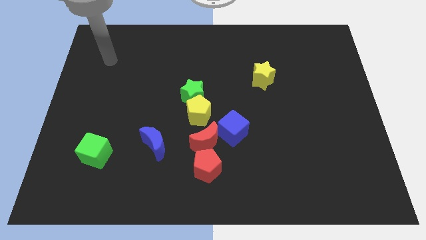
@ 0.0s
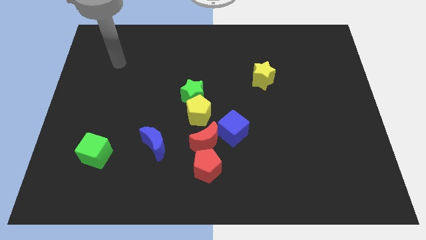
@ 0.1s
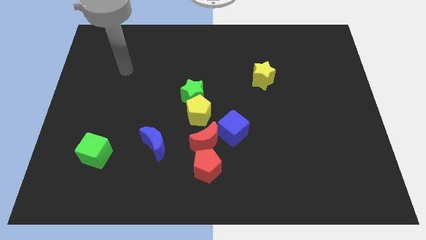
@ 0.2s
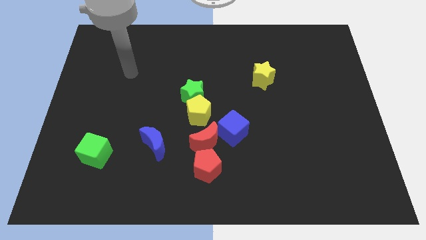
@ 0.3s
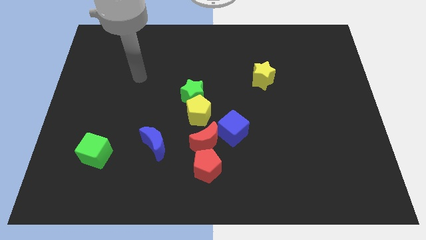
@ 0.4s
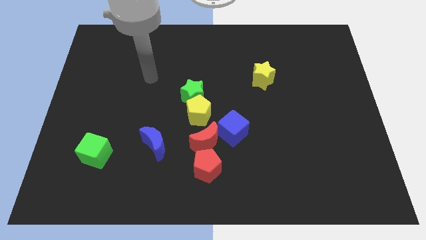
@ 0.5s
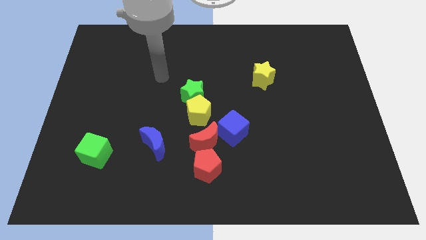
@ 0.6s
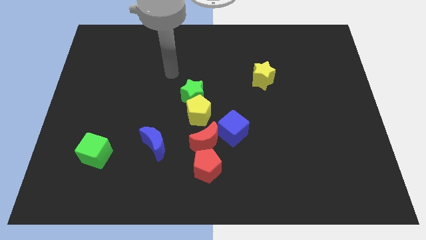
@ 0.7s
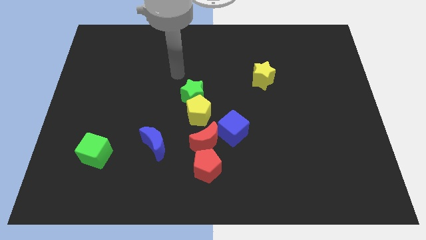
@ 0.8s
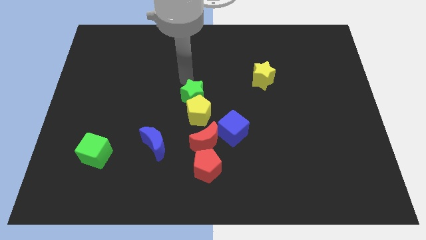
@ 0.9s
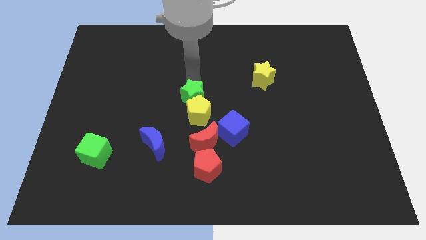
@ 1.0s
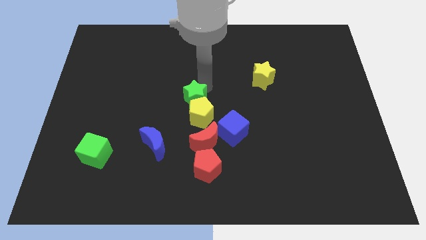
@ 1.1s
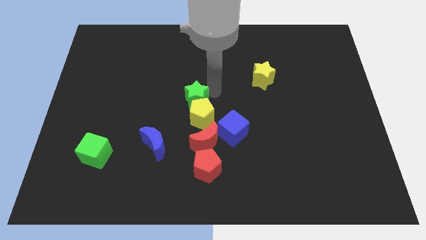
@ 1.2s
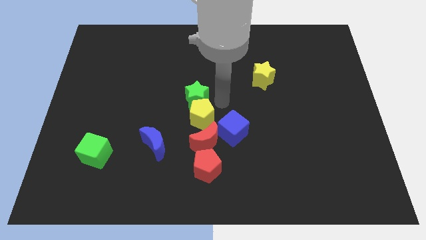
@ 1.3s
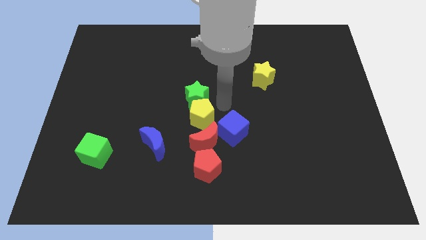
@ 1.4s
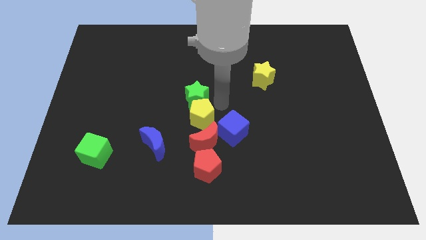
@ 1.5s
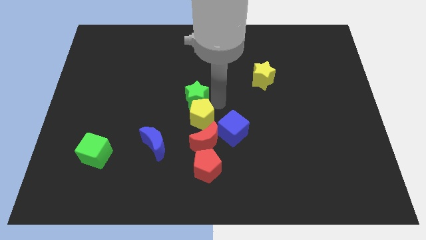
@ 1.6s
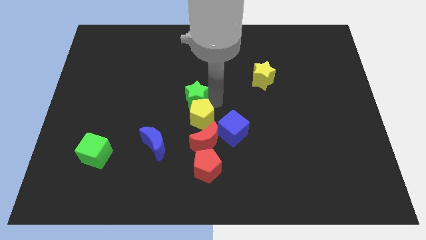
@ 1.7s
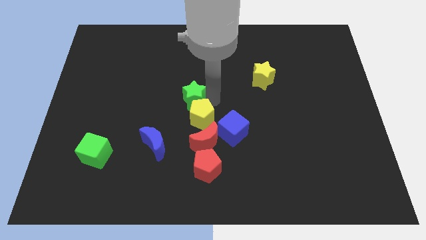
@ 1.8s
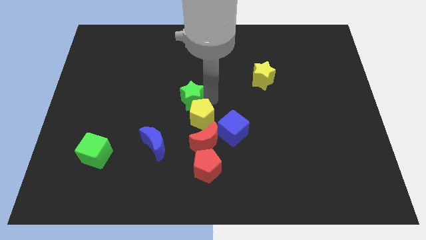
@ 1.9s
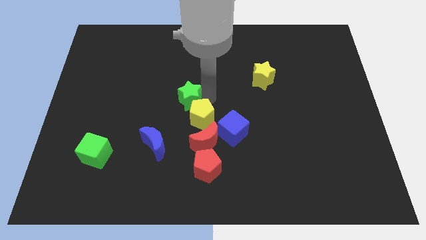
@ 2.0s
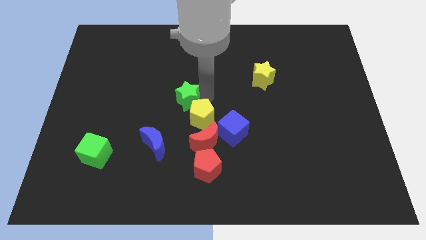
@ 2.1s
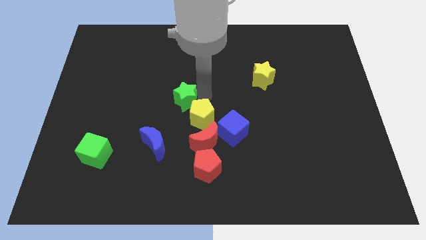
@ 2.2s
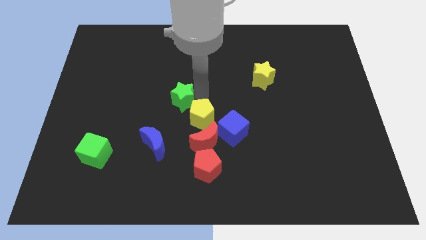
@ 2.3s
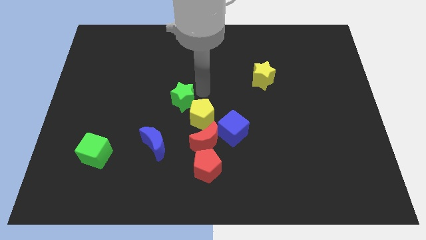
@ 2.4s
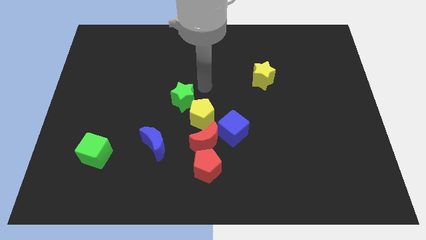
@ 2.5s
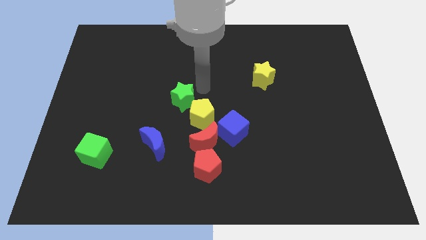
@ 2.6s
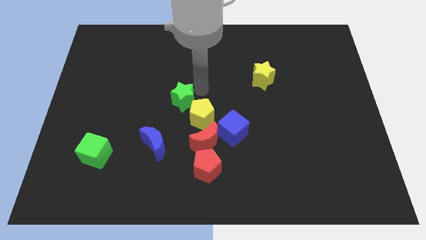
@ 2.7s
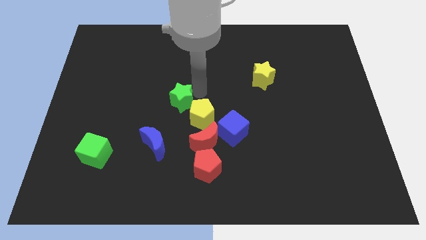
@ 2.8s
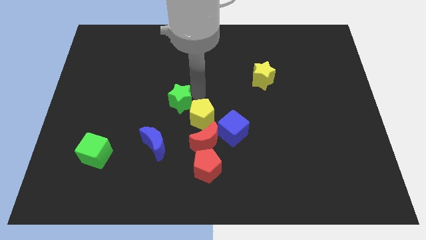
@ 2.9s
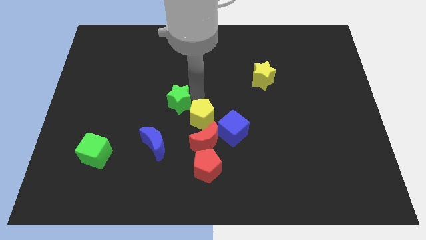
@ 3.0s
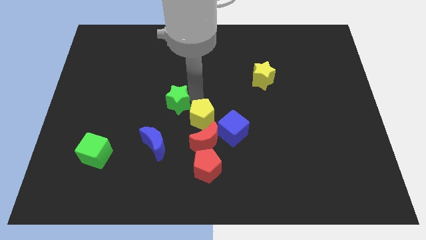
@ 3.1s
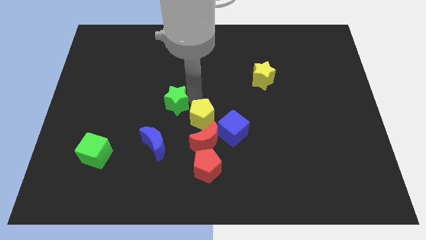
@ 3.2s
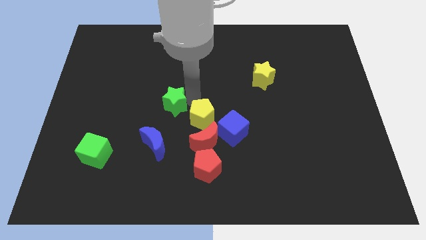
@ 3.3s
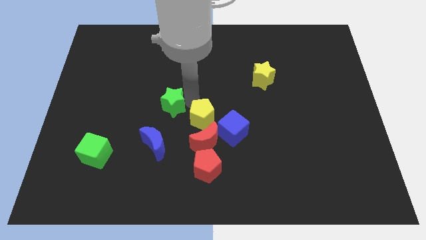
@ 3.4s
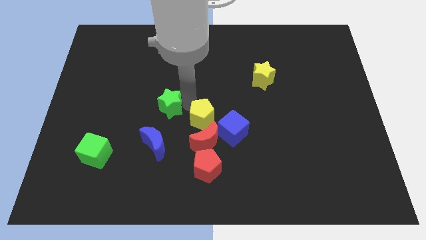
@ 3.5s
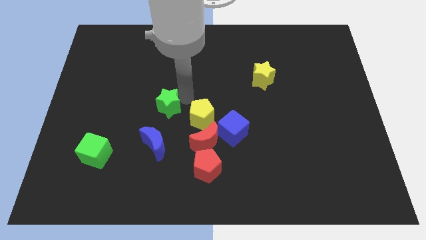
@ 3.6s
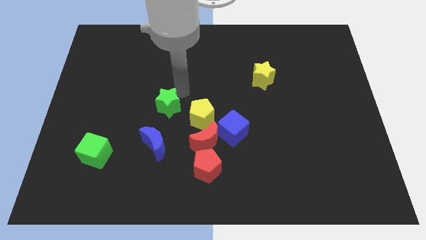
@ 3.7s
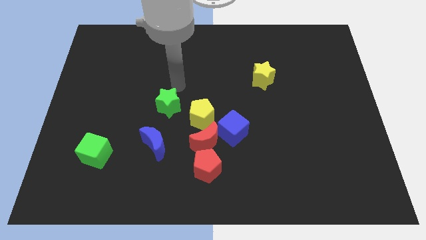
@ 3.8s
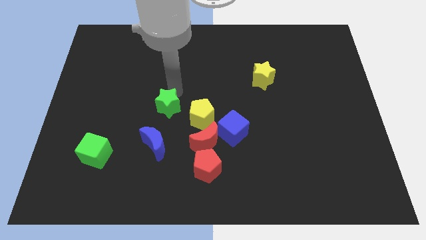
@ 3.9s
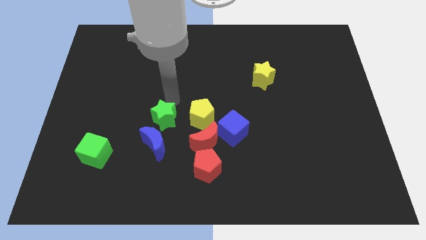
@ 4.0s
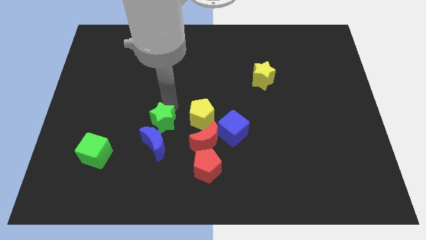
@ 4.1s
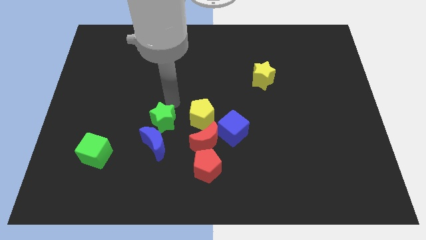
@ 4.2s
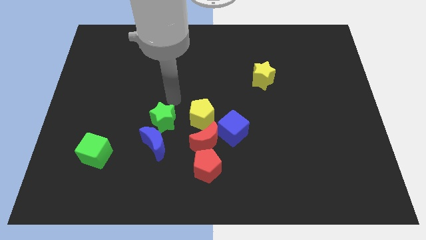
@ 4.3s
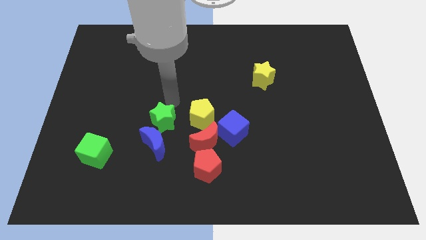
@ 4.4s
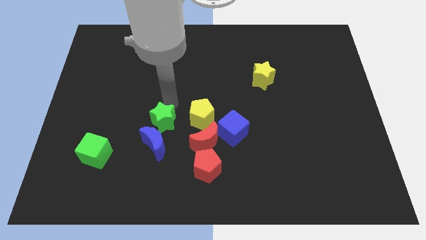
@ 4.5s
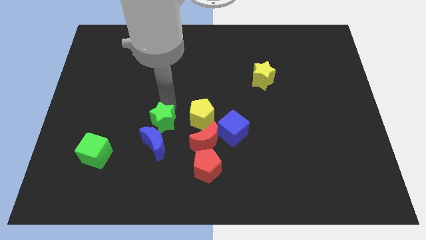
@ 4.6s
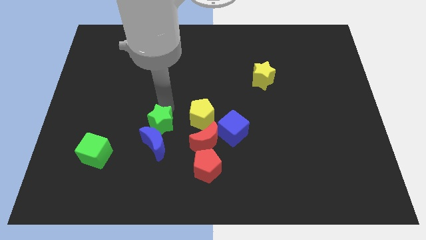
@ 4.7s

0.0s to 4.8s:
put the green star to the blue moon

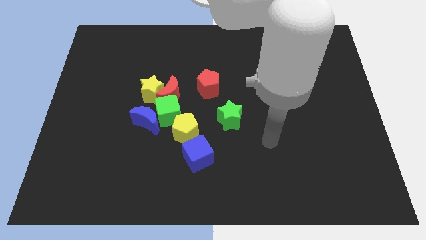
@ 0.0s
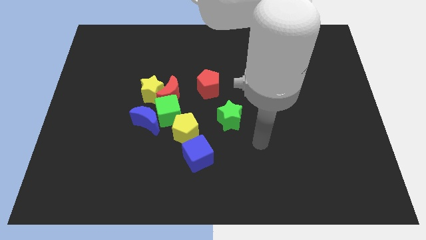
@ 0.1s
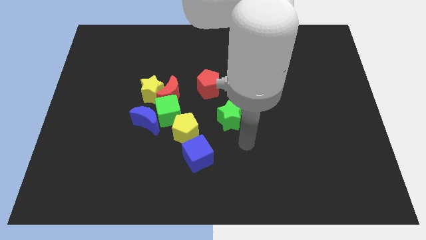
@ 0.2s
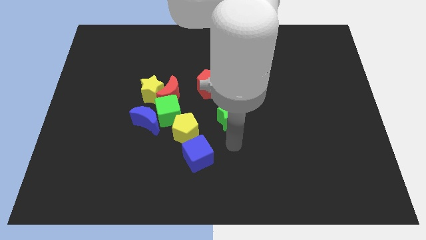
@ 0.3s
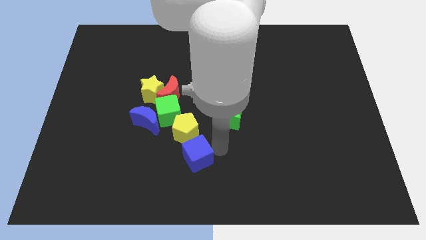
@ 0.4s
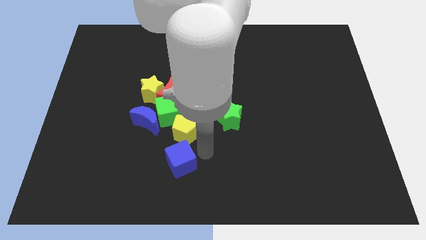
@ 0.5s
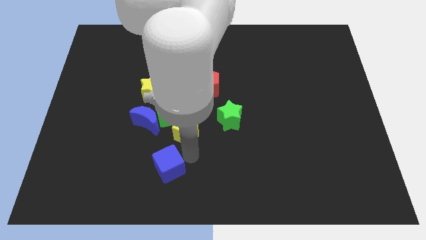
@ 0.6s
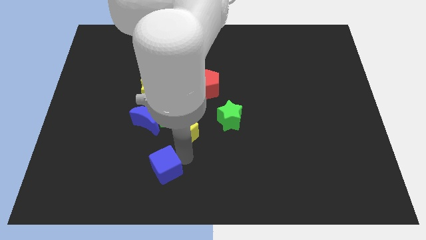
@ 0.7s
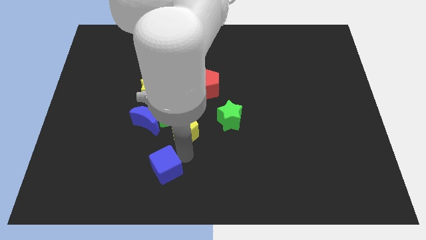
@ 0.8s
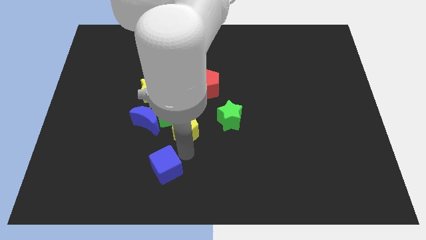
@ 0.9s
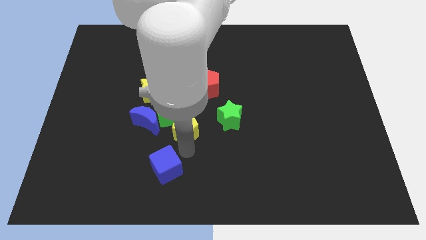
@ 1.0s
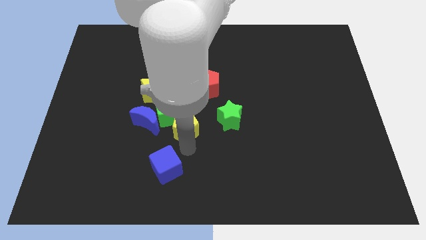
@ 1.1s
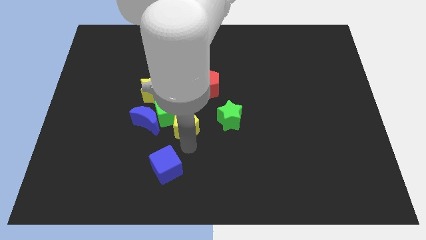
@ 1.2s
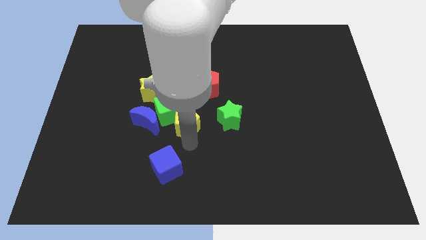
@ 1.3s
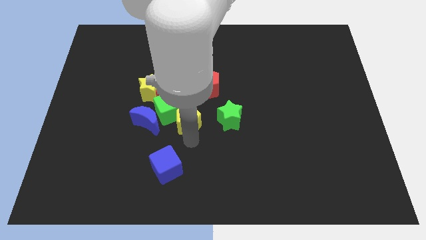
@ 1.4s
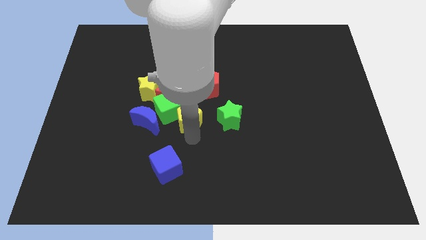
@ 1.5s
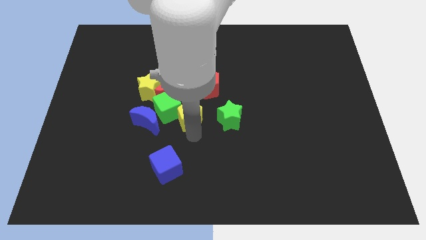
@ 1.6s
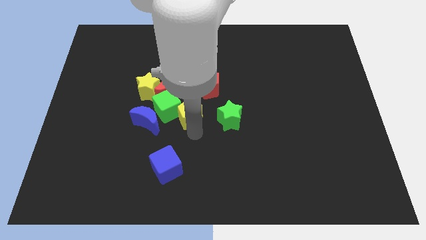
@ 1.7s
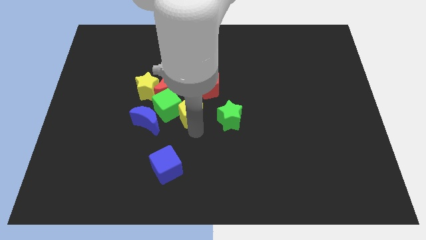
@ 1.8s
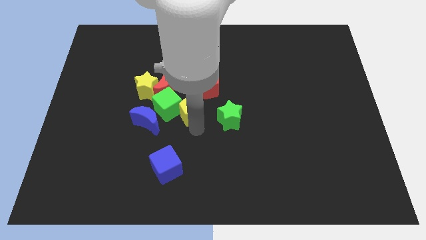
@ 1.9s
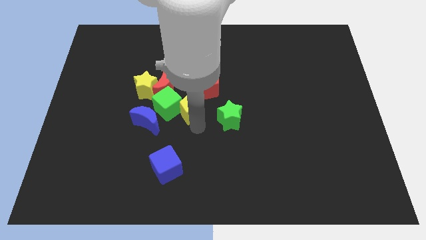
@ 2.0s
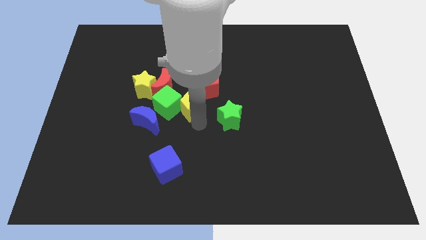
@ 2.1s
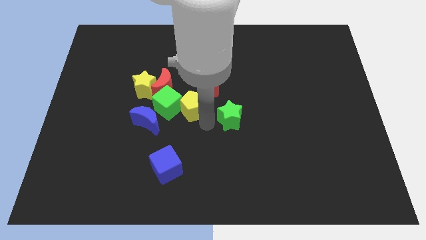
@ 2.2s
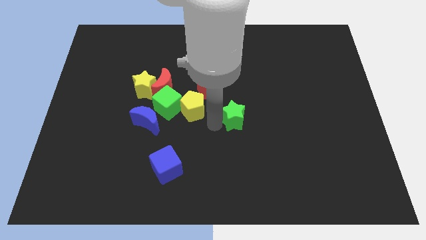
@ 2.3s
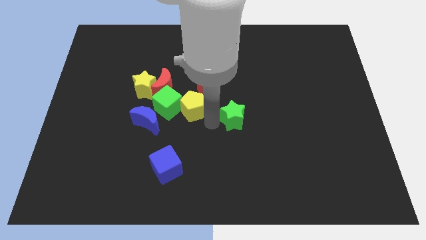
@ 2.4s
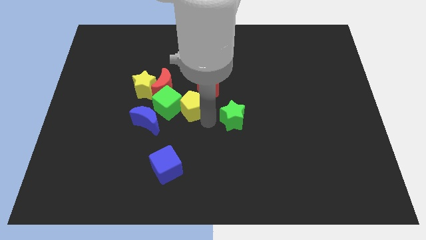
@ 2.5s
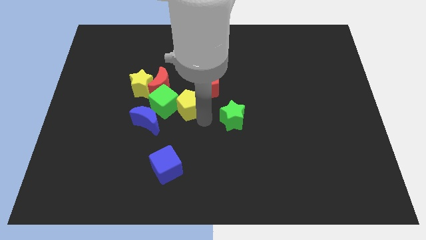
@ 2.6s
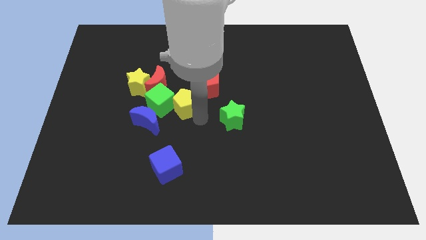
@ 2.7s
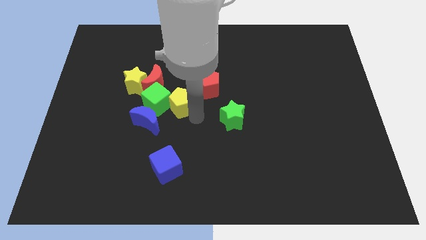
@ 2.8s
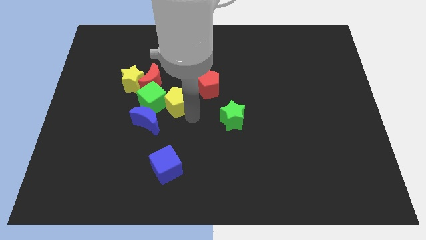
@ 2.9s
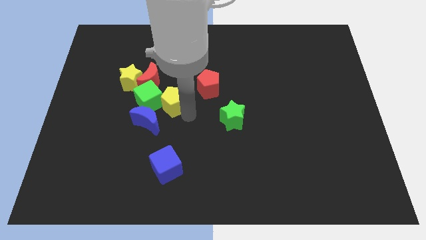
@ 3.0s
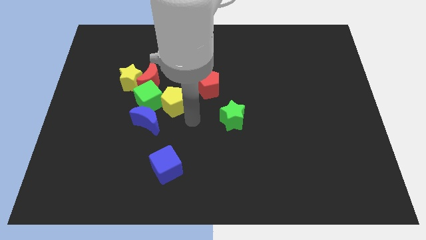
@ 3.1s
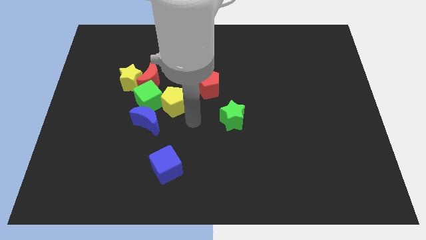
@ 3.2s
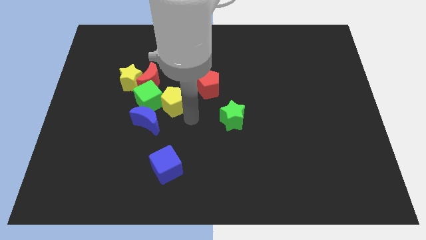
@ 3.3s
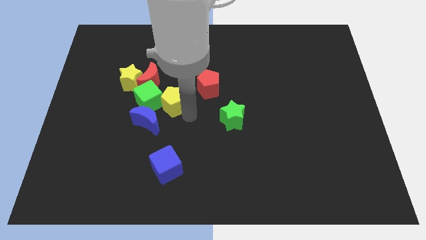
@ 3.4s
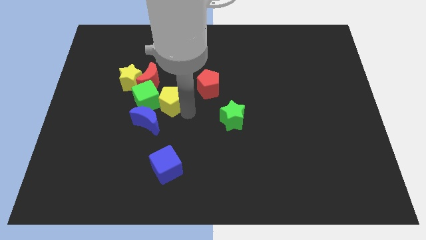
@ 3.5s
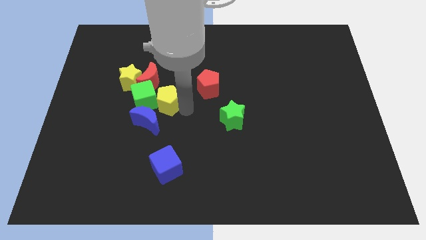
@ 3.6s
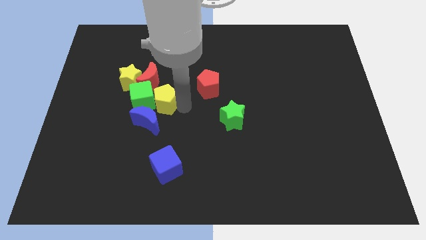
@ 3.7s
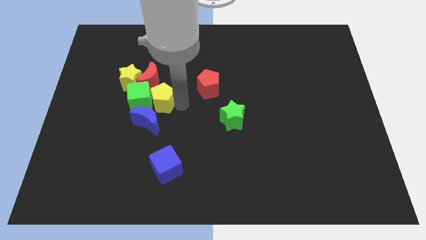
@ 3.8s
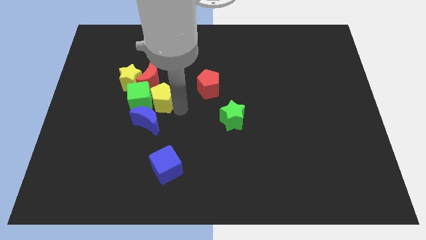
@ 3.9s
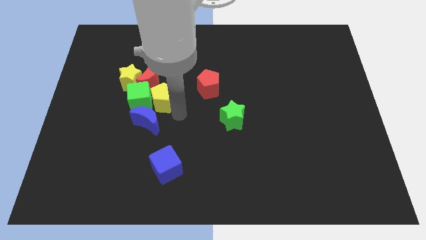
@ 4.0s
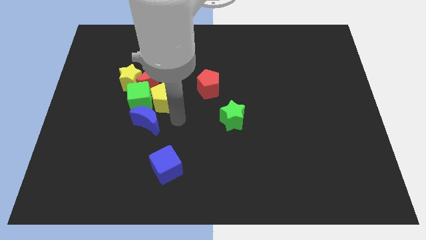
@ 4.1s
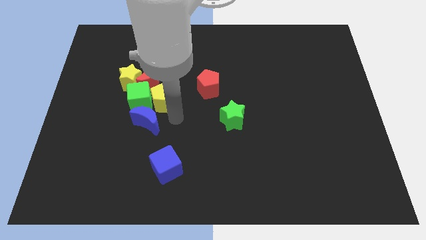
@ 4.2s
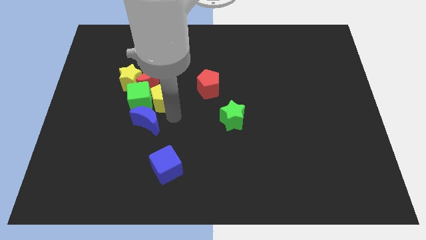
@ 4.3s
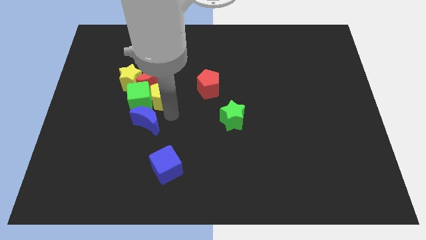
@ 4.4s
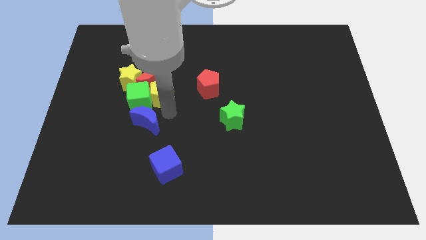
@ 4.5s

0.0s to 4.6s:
move the yellow pentagon next to the red moon
